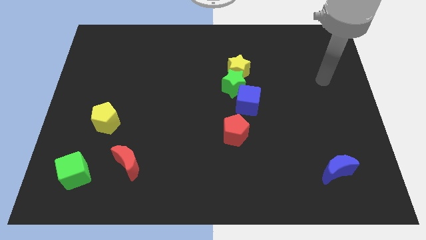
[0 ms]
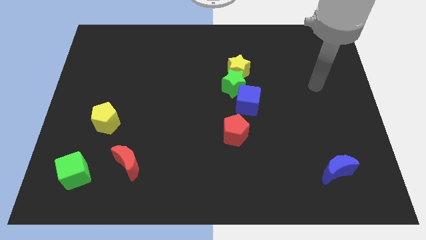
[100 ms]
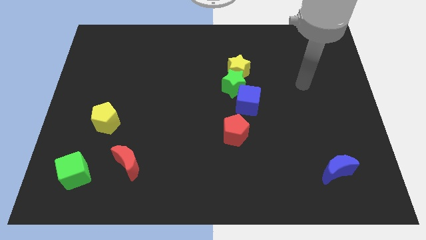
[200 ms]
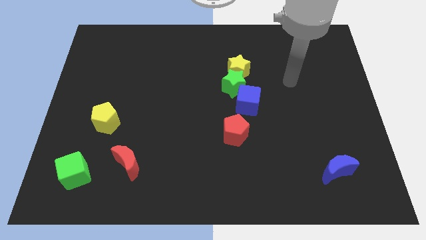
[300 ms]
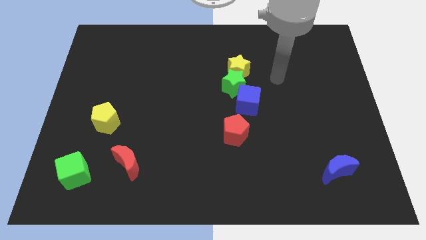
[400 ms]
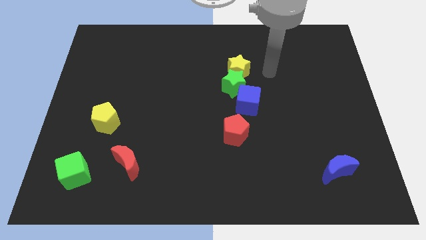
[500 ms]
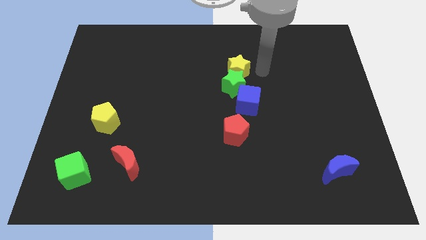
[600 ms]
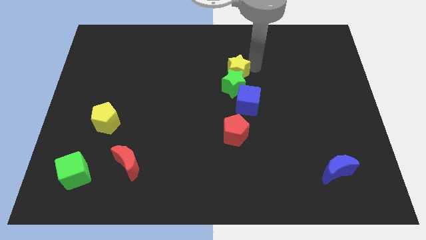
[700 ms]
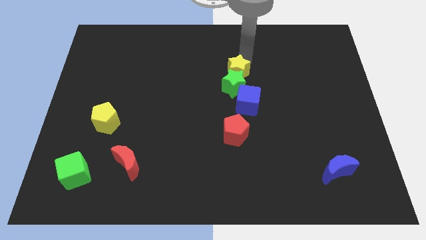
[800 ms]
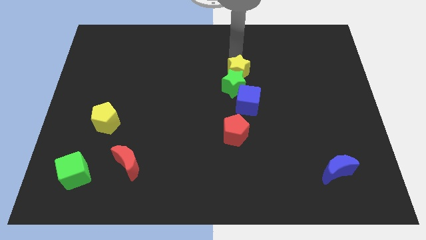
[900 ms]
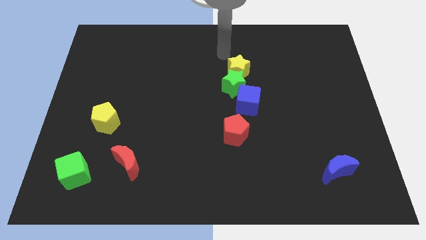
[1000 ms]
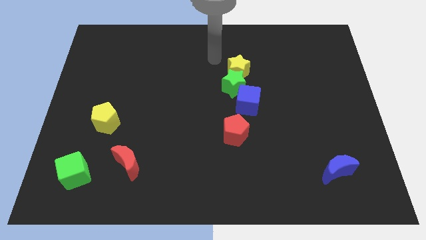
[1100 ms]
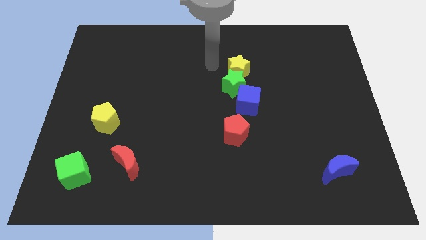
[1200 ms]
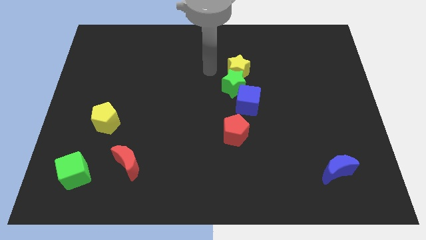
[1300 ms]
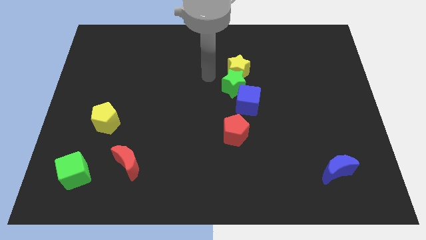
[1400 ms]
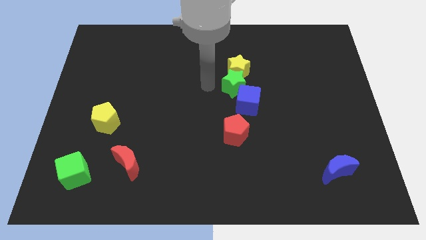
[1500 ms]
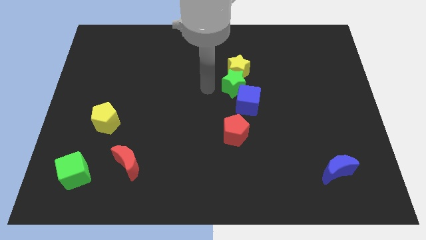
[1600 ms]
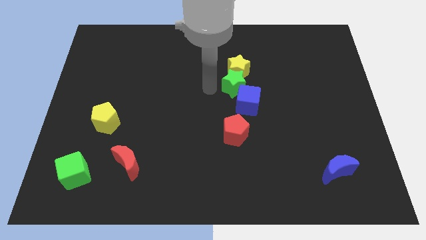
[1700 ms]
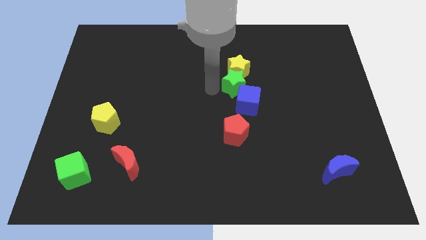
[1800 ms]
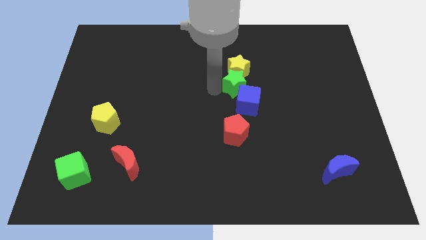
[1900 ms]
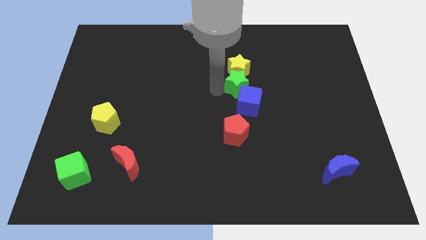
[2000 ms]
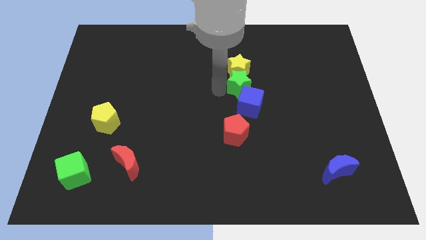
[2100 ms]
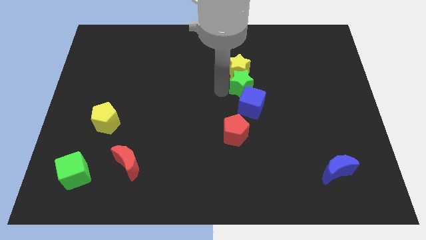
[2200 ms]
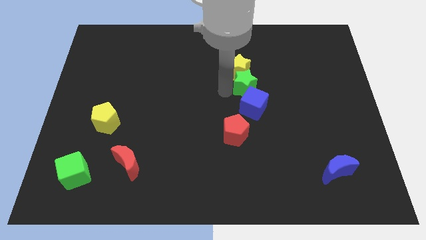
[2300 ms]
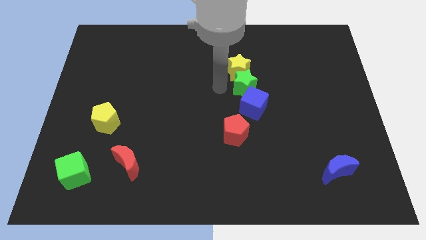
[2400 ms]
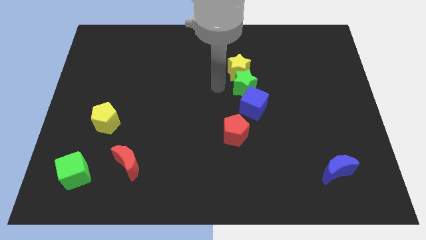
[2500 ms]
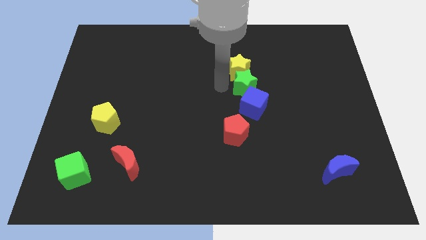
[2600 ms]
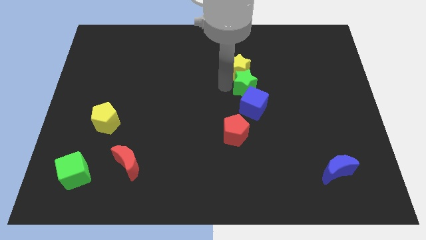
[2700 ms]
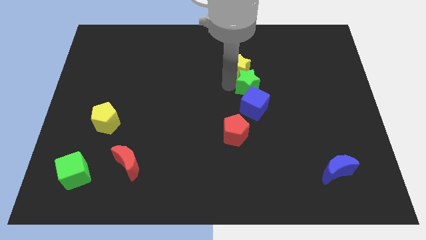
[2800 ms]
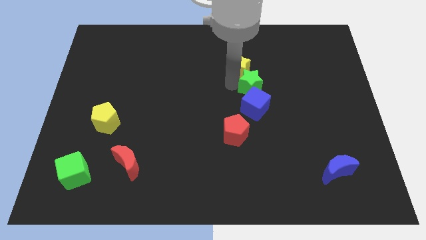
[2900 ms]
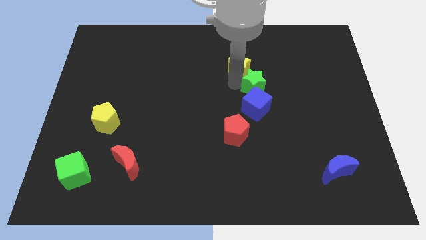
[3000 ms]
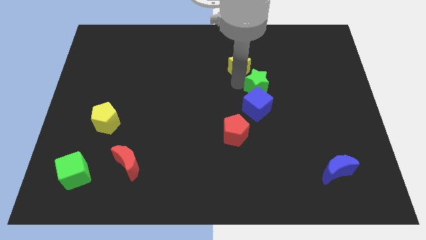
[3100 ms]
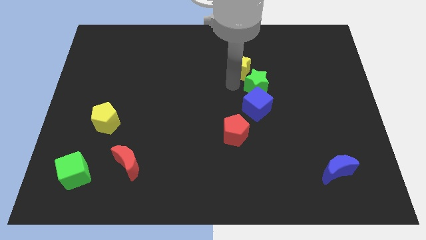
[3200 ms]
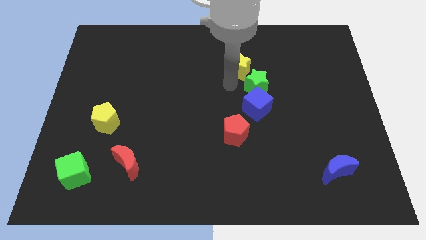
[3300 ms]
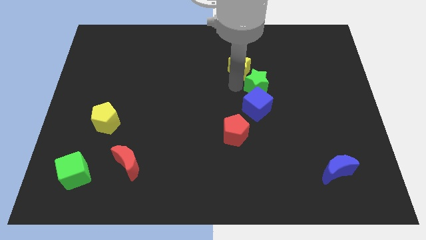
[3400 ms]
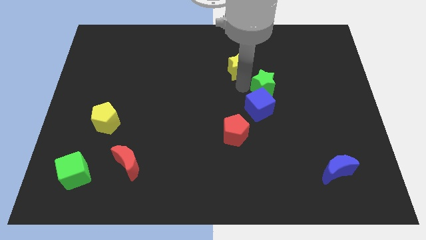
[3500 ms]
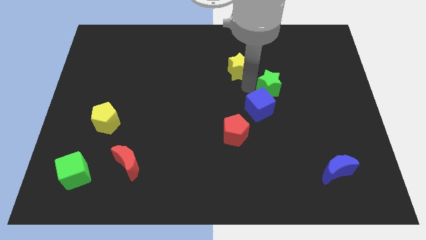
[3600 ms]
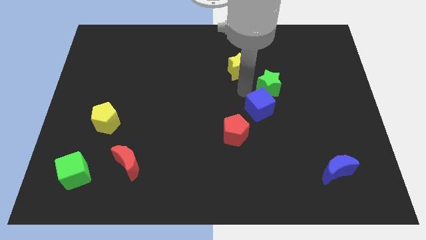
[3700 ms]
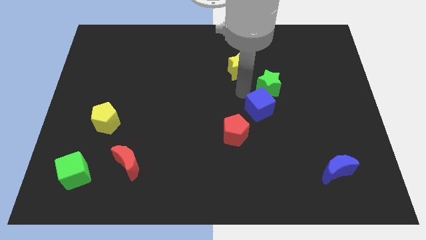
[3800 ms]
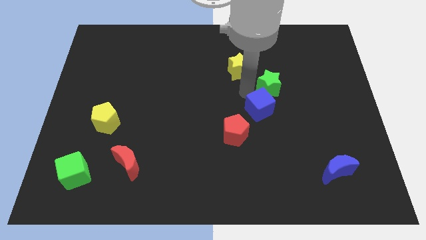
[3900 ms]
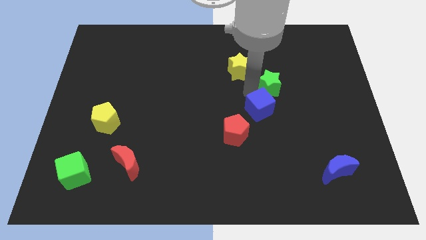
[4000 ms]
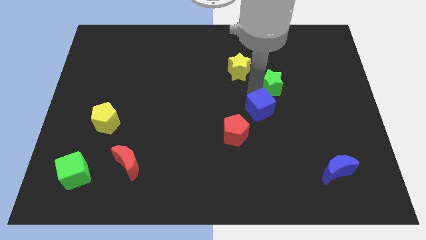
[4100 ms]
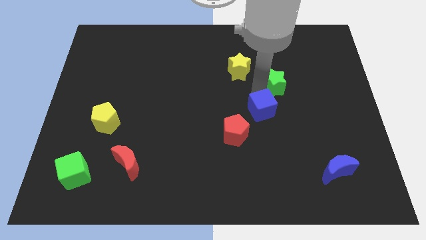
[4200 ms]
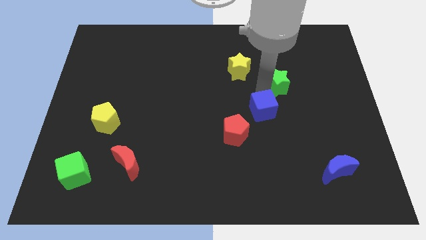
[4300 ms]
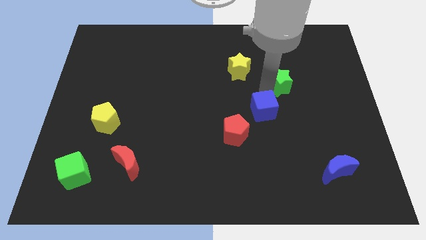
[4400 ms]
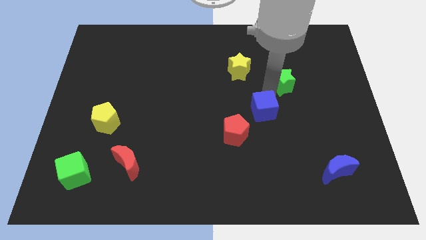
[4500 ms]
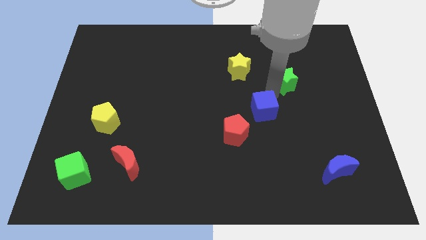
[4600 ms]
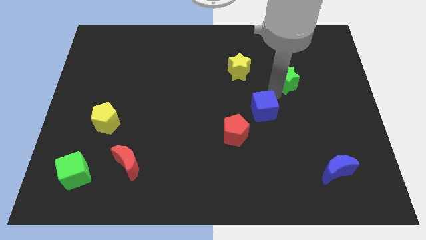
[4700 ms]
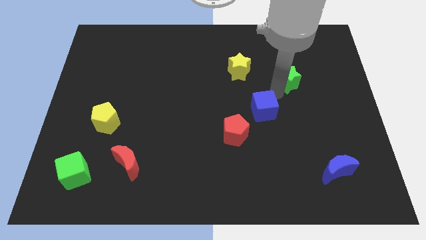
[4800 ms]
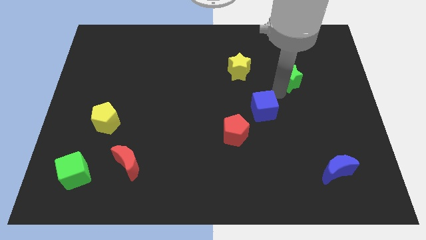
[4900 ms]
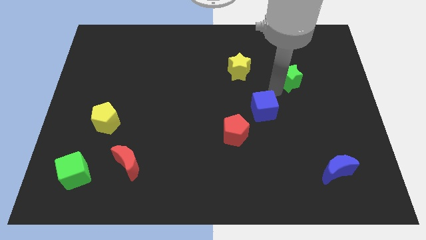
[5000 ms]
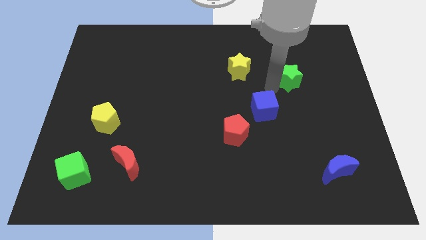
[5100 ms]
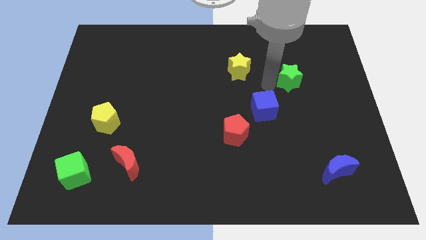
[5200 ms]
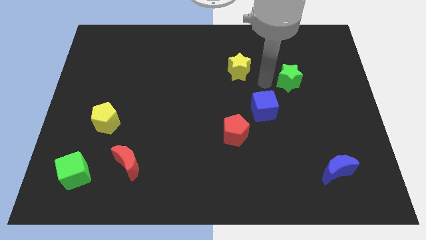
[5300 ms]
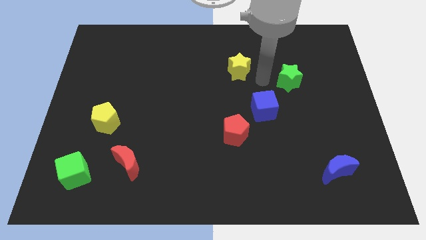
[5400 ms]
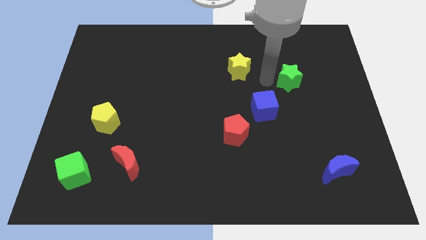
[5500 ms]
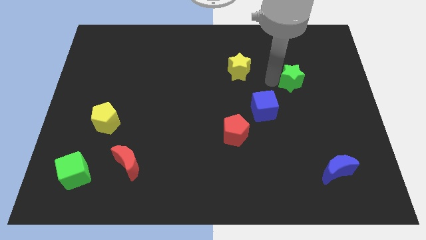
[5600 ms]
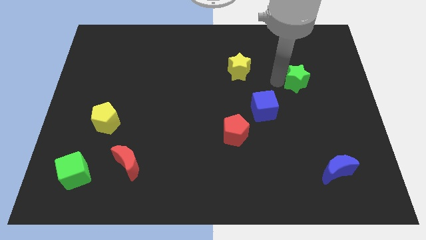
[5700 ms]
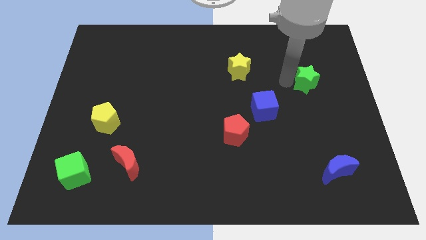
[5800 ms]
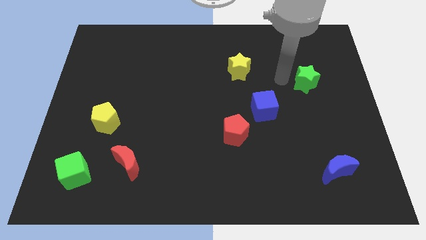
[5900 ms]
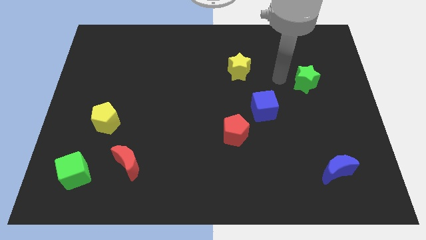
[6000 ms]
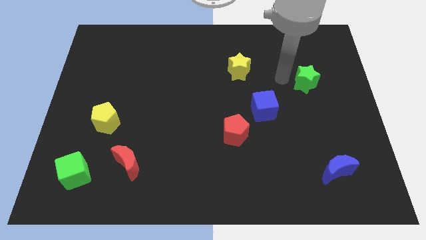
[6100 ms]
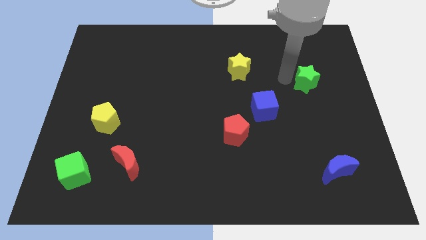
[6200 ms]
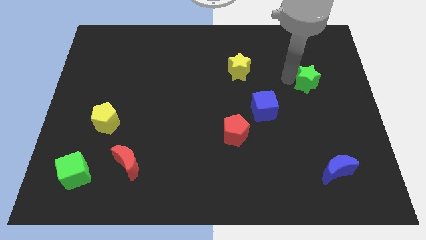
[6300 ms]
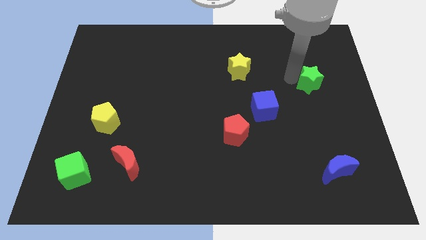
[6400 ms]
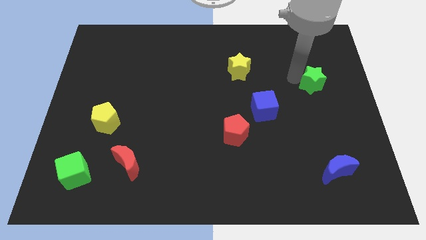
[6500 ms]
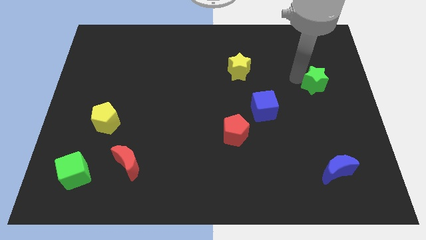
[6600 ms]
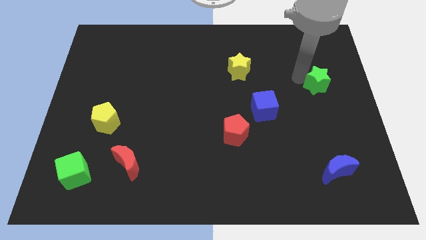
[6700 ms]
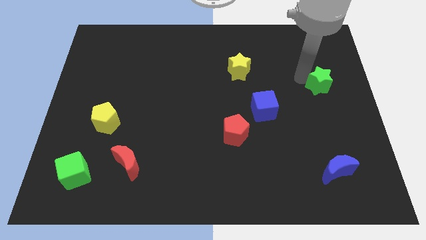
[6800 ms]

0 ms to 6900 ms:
slide the green star to the right side
